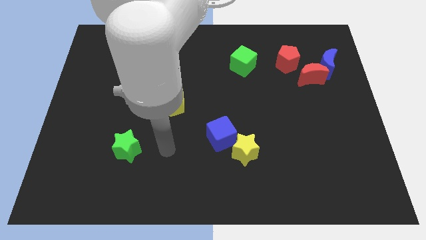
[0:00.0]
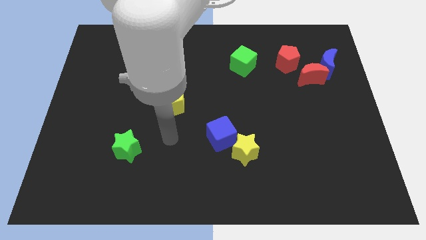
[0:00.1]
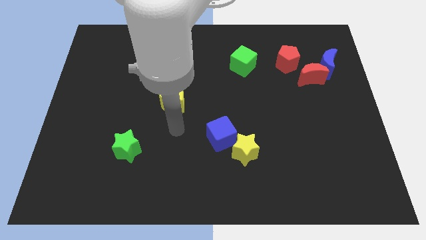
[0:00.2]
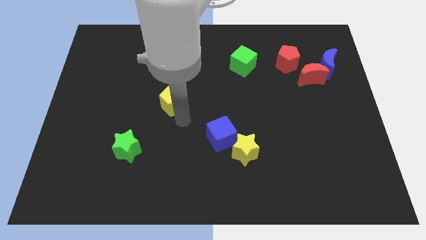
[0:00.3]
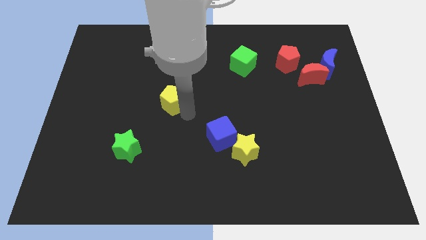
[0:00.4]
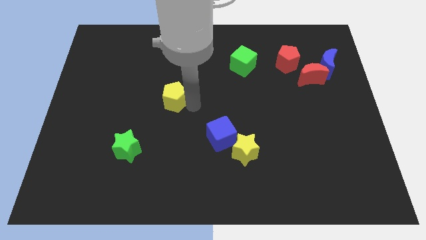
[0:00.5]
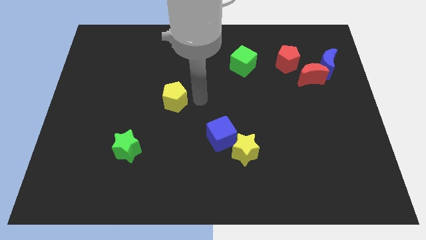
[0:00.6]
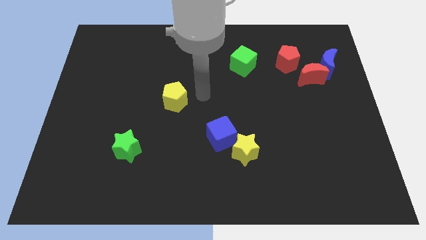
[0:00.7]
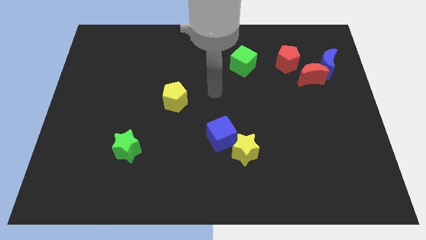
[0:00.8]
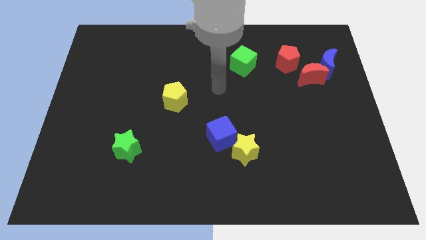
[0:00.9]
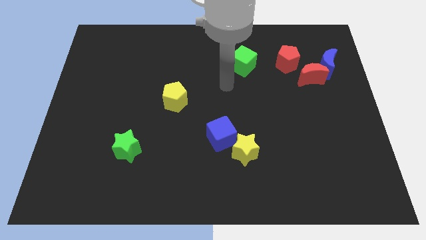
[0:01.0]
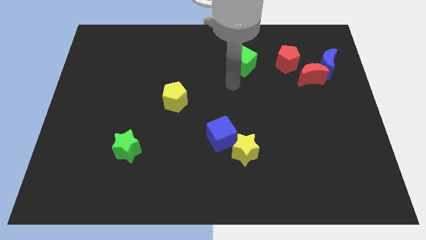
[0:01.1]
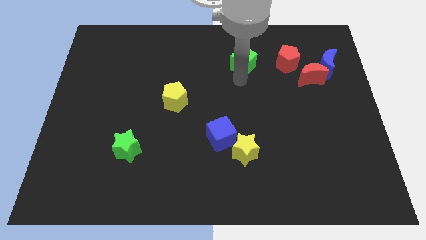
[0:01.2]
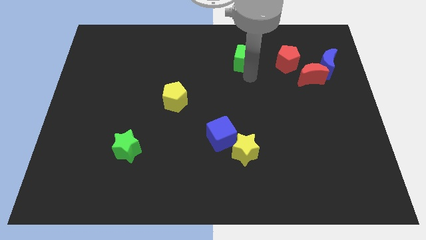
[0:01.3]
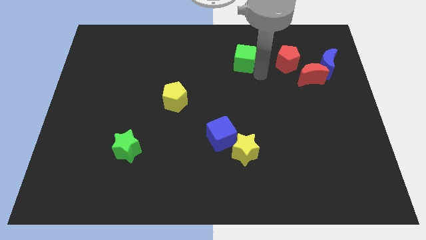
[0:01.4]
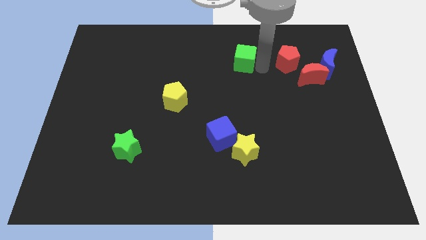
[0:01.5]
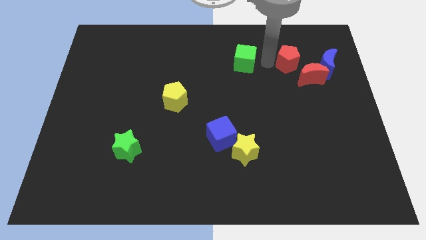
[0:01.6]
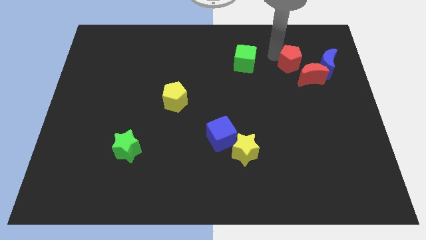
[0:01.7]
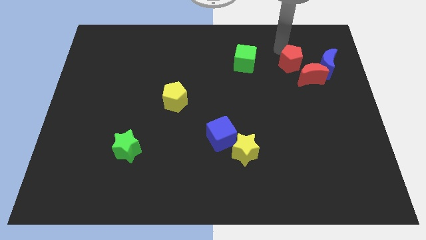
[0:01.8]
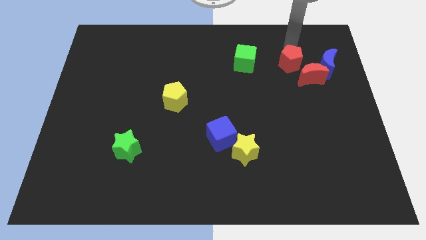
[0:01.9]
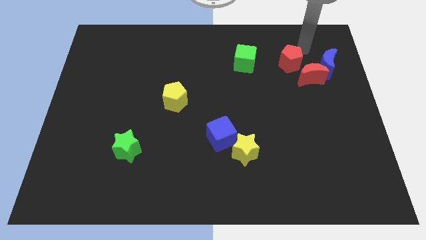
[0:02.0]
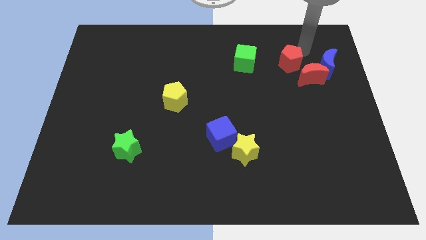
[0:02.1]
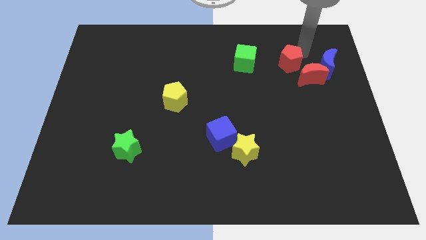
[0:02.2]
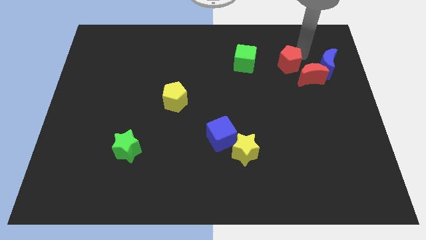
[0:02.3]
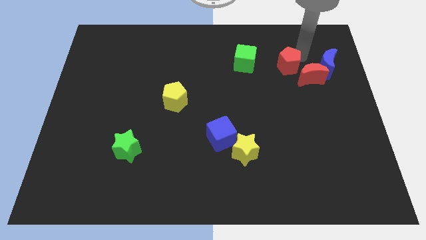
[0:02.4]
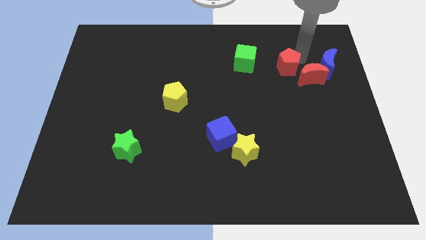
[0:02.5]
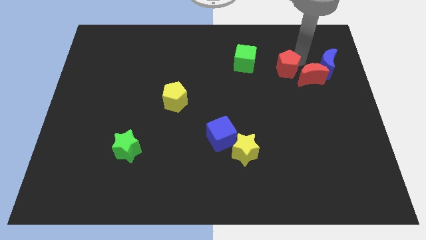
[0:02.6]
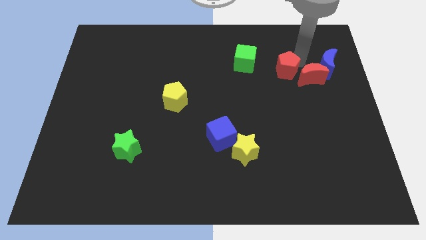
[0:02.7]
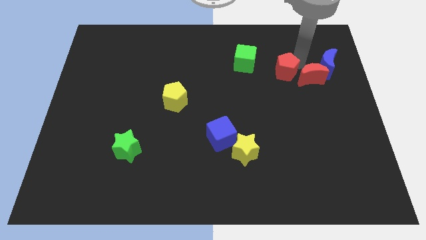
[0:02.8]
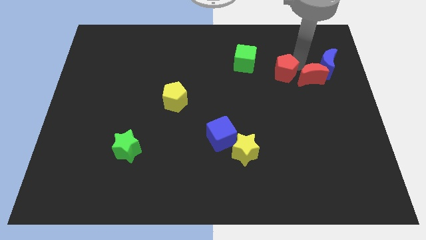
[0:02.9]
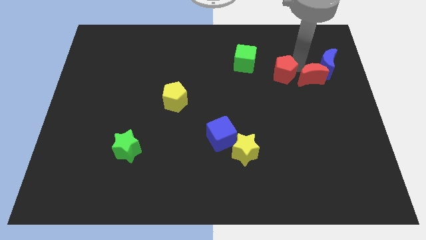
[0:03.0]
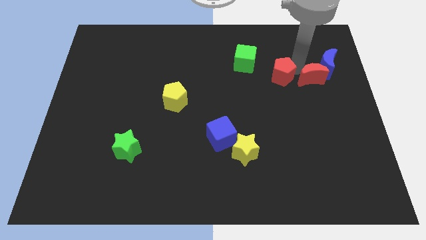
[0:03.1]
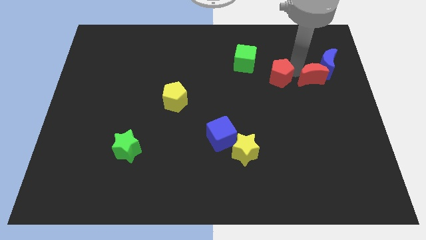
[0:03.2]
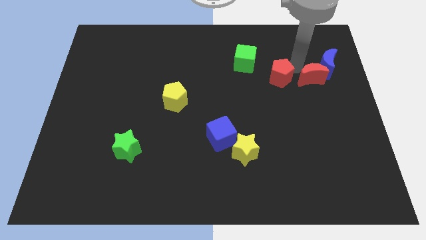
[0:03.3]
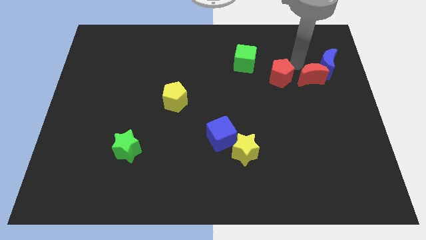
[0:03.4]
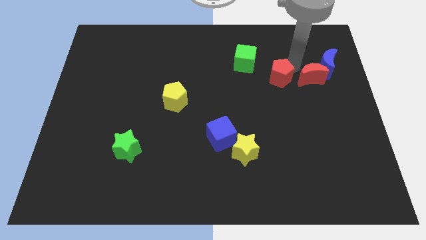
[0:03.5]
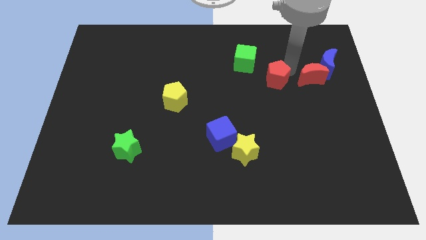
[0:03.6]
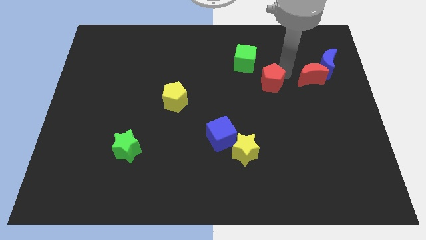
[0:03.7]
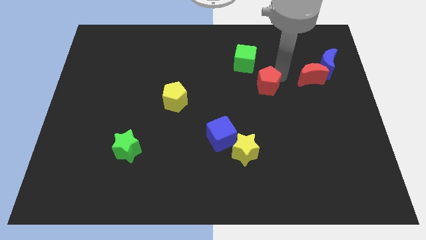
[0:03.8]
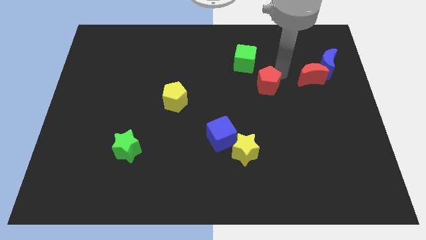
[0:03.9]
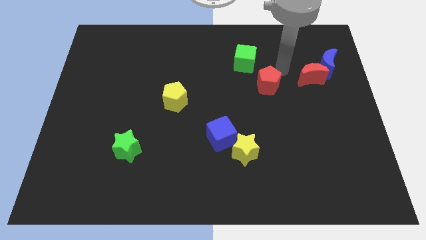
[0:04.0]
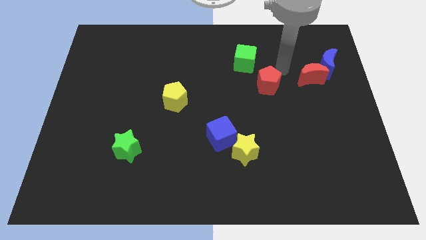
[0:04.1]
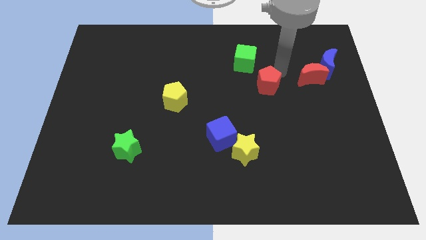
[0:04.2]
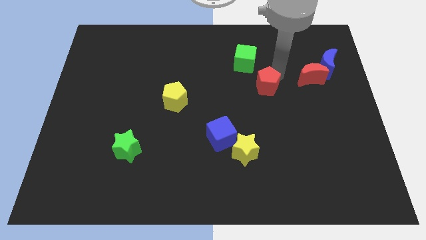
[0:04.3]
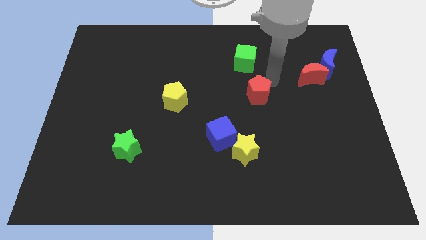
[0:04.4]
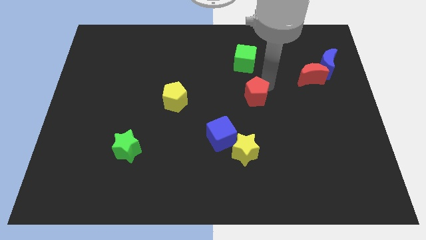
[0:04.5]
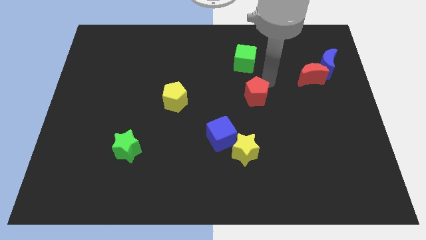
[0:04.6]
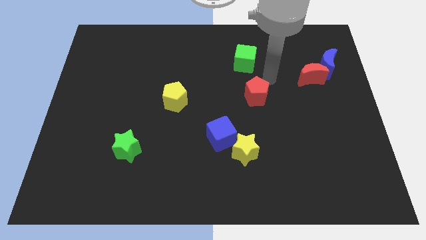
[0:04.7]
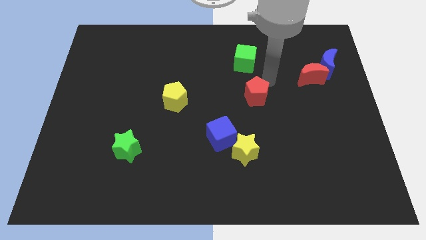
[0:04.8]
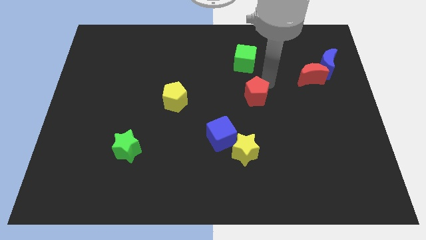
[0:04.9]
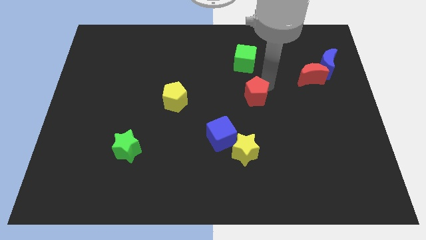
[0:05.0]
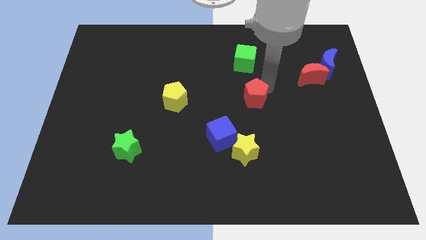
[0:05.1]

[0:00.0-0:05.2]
slide the red pentagon above the yellow star

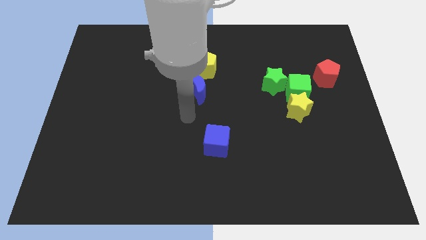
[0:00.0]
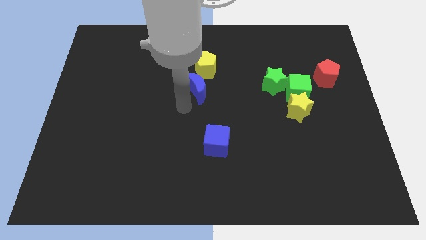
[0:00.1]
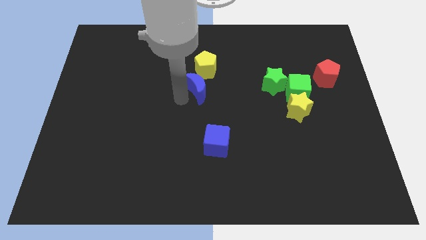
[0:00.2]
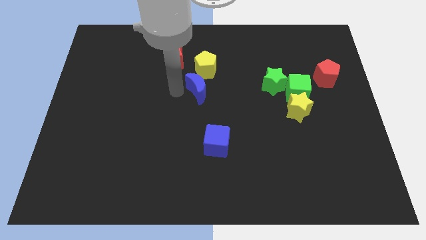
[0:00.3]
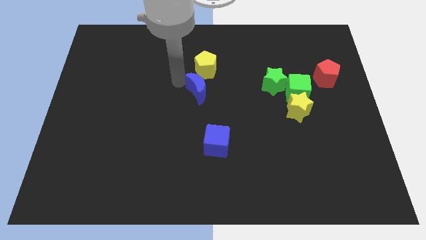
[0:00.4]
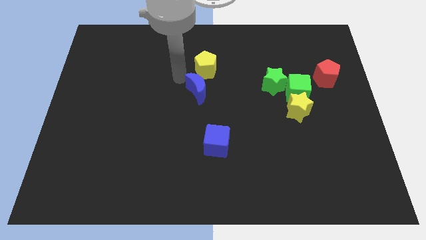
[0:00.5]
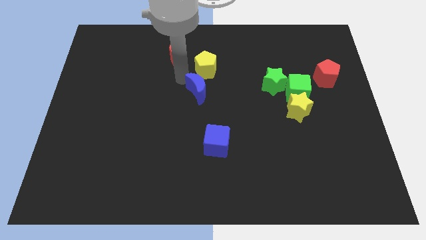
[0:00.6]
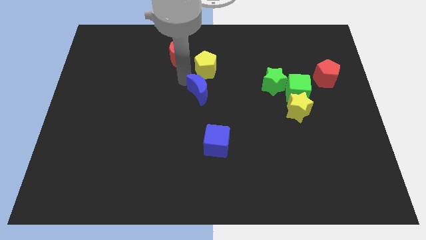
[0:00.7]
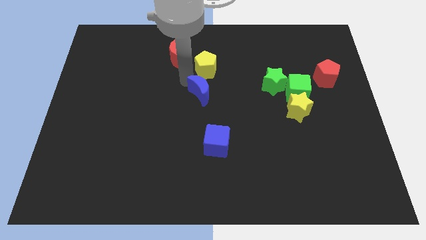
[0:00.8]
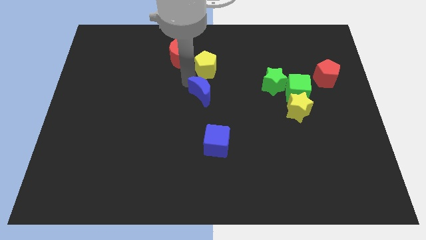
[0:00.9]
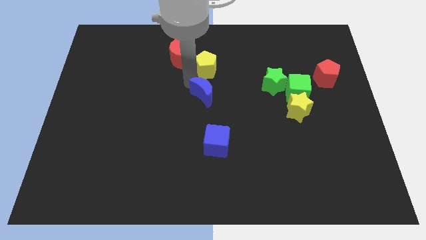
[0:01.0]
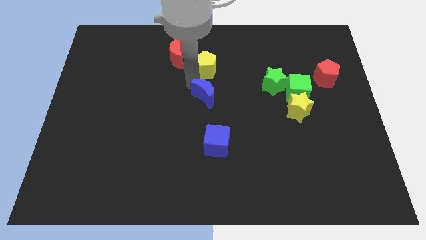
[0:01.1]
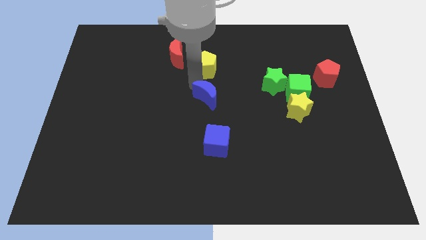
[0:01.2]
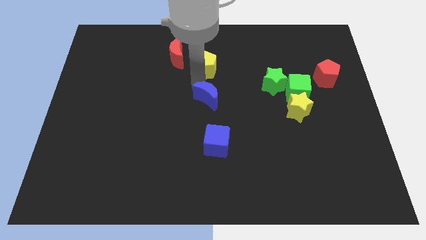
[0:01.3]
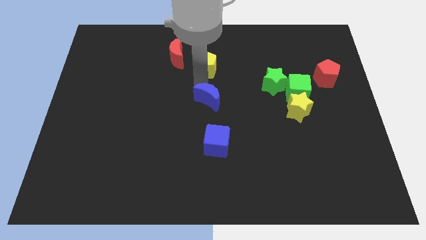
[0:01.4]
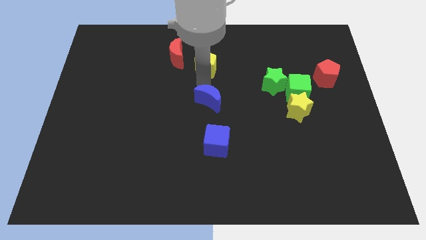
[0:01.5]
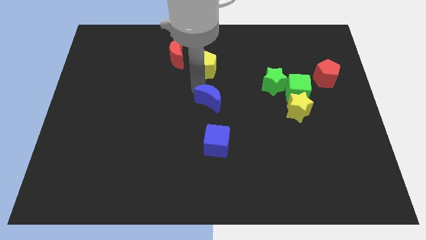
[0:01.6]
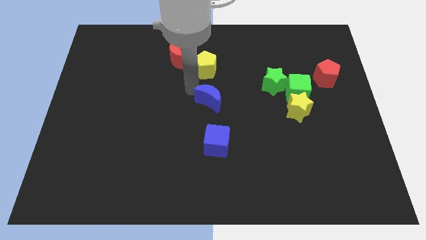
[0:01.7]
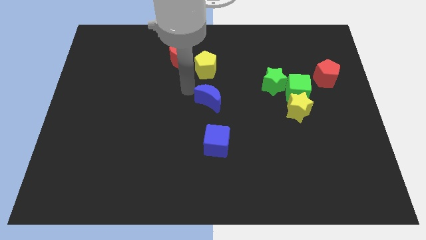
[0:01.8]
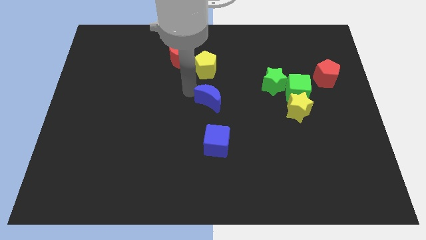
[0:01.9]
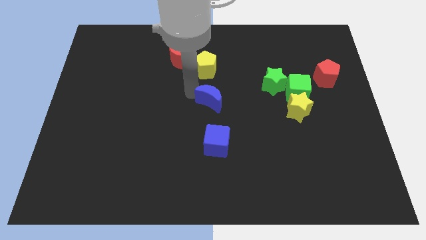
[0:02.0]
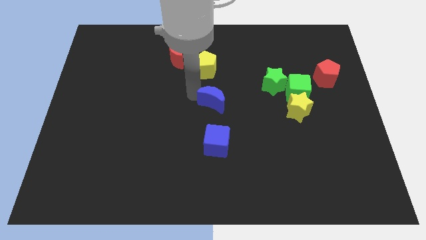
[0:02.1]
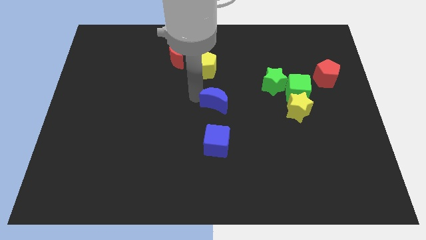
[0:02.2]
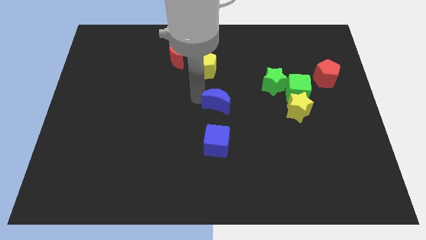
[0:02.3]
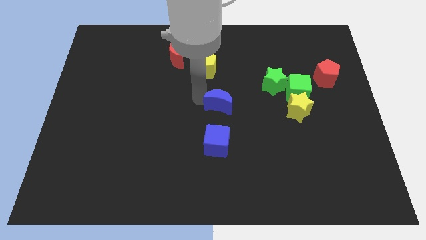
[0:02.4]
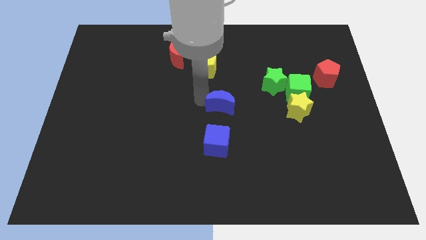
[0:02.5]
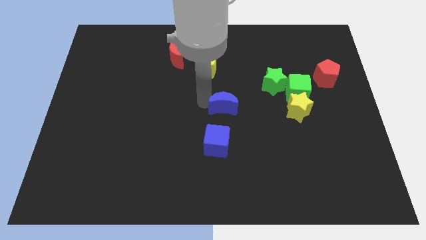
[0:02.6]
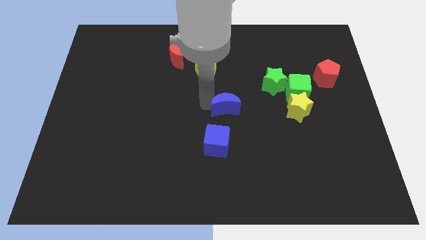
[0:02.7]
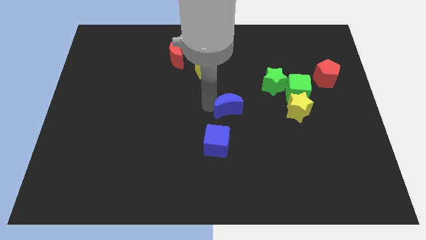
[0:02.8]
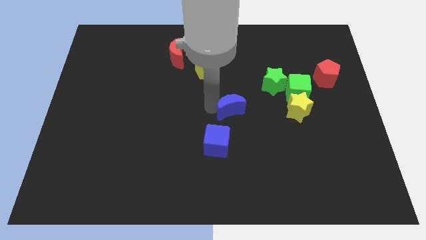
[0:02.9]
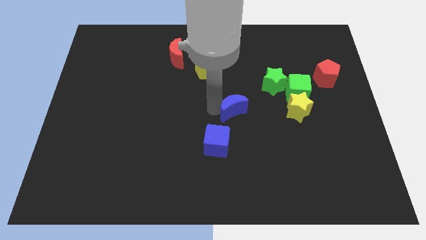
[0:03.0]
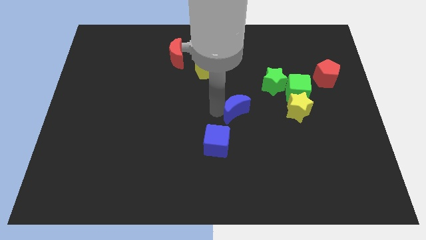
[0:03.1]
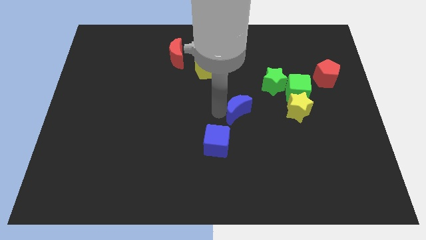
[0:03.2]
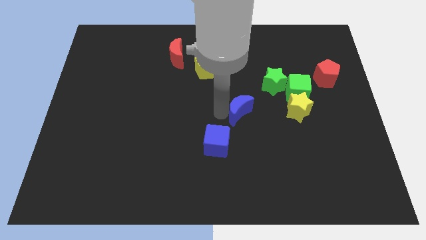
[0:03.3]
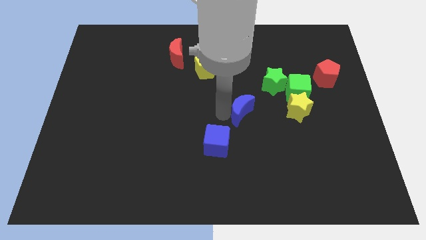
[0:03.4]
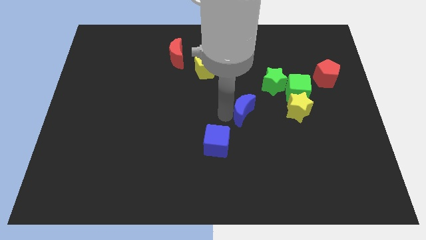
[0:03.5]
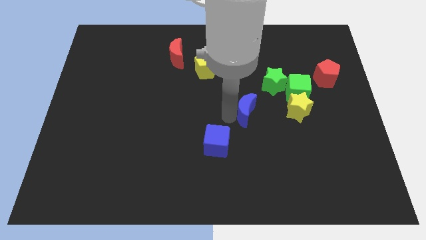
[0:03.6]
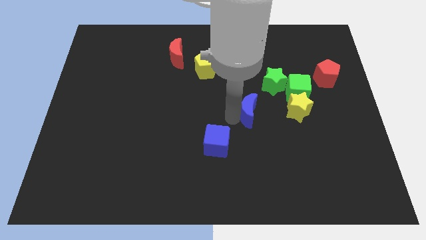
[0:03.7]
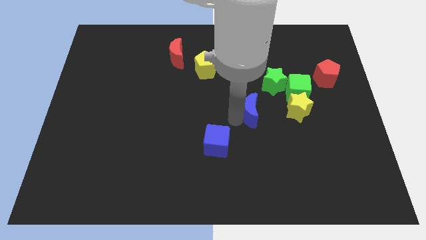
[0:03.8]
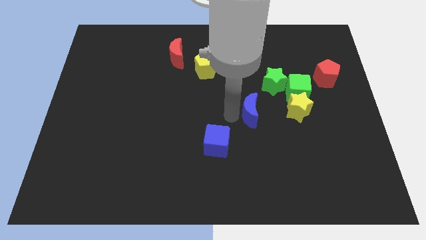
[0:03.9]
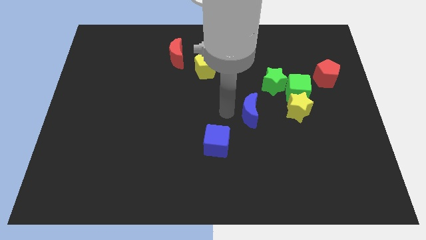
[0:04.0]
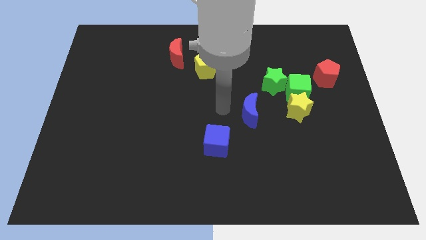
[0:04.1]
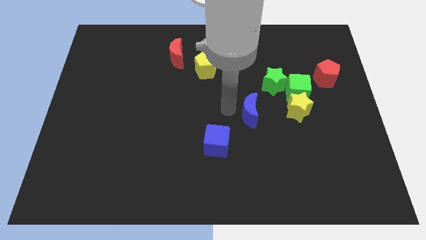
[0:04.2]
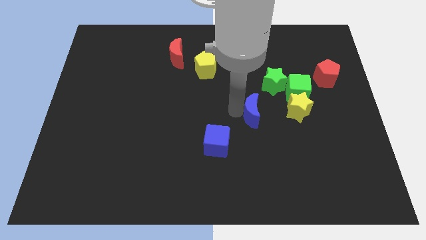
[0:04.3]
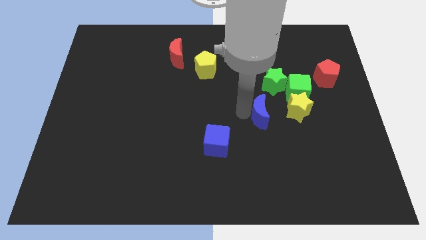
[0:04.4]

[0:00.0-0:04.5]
move the blue moon to the bottom side of the green star
